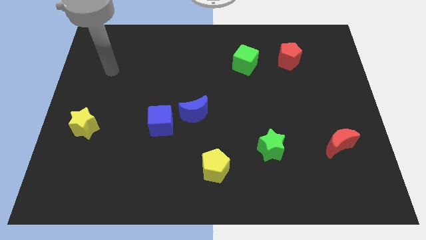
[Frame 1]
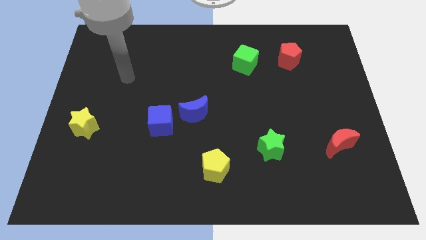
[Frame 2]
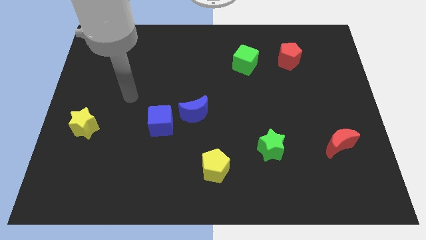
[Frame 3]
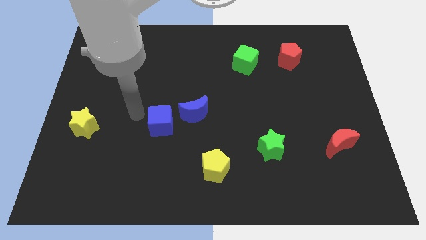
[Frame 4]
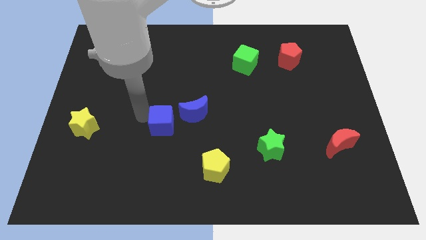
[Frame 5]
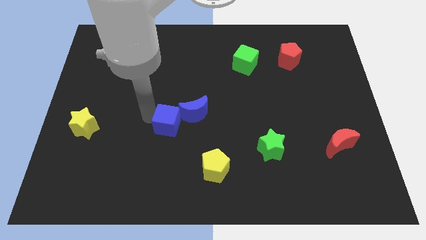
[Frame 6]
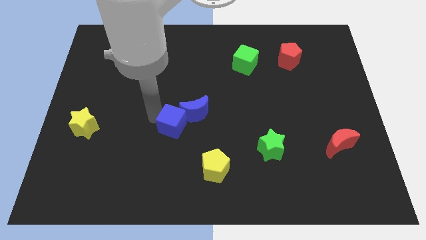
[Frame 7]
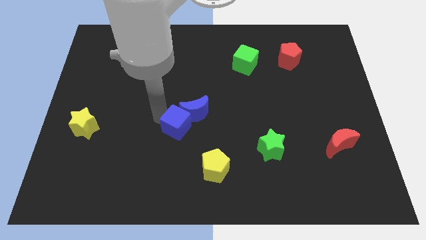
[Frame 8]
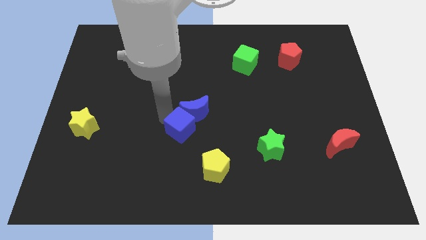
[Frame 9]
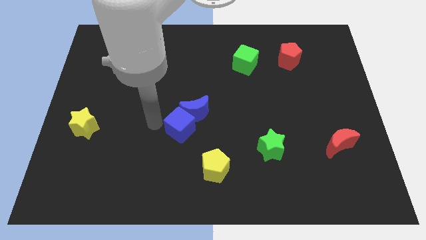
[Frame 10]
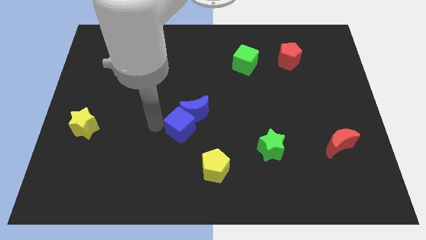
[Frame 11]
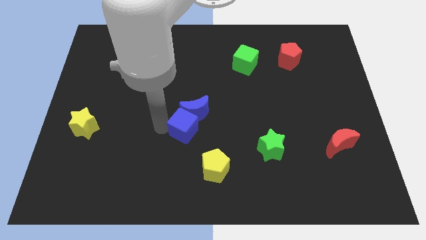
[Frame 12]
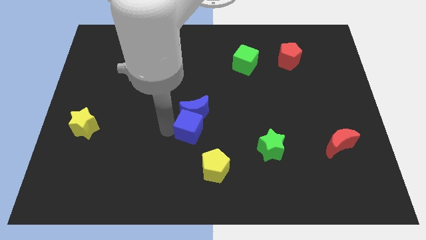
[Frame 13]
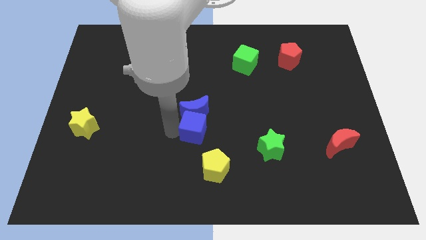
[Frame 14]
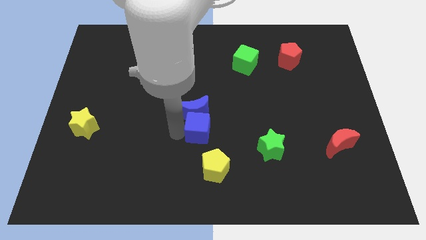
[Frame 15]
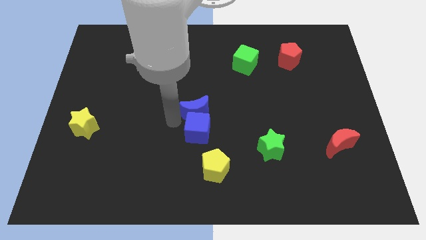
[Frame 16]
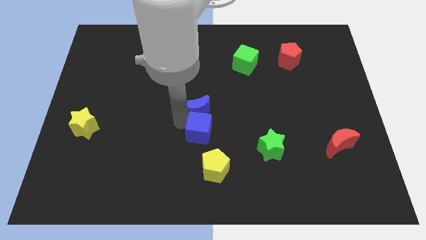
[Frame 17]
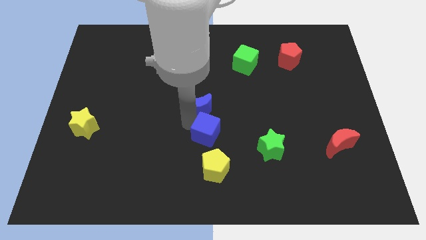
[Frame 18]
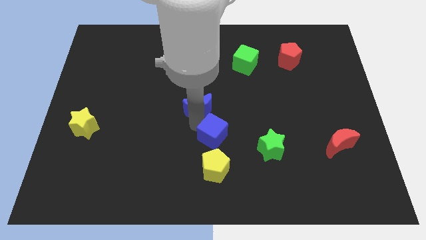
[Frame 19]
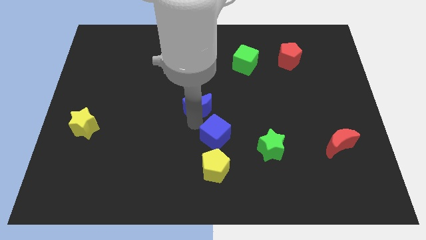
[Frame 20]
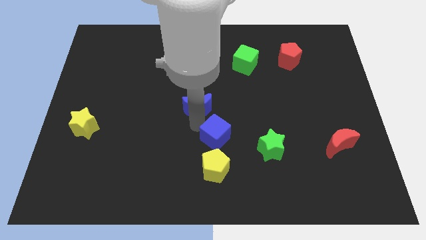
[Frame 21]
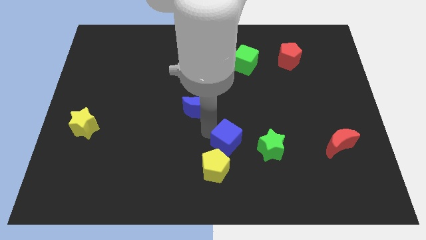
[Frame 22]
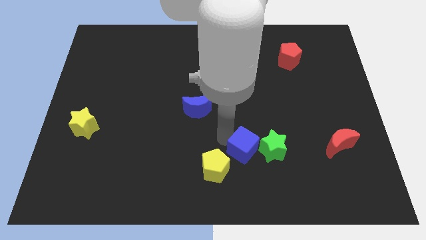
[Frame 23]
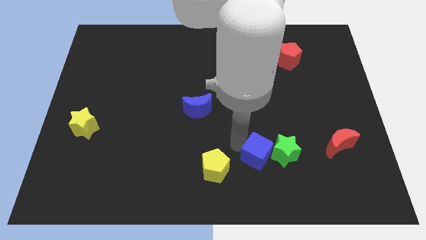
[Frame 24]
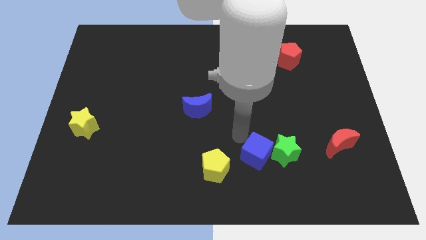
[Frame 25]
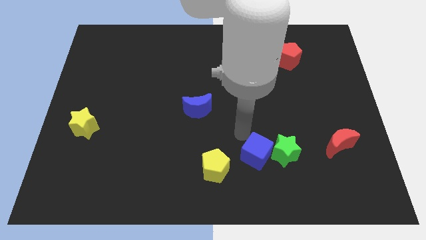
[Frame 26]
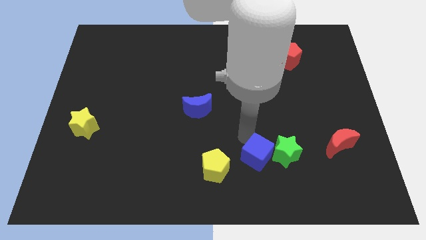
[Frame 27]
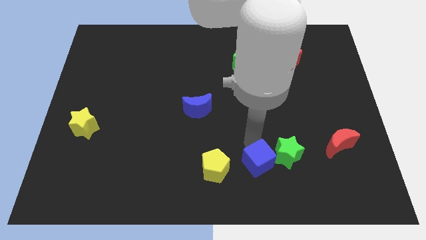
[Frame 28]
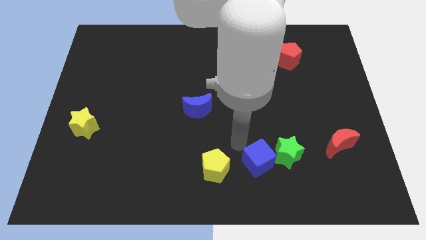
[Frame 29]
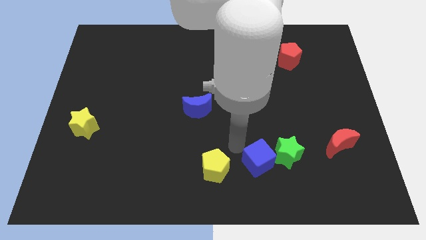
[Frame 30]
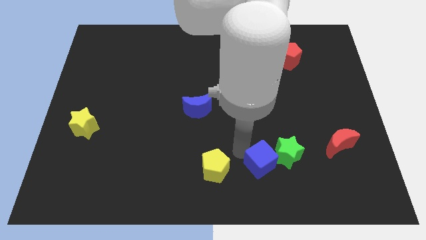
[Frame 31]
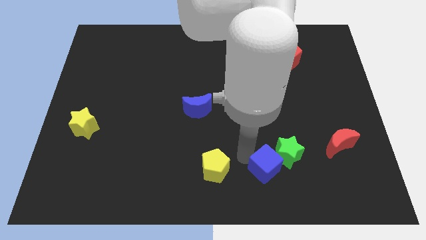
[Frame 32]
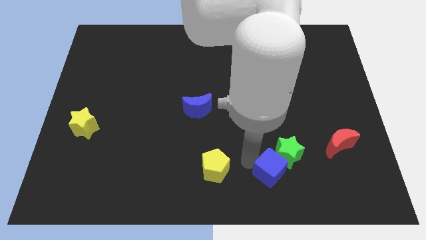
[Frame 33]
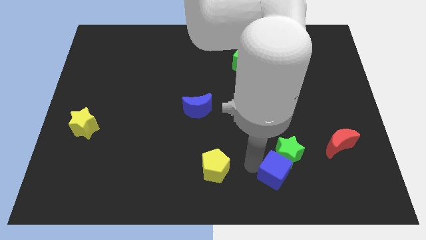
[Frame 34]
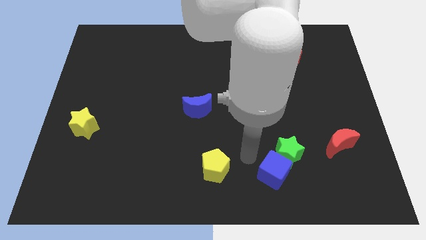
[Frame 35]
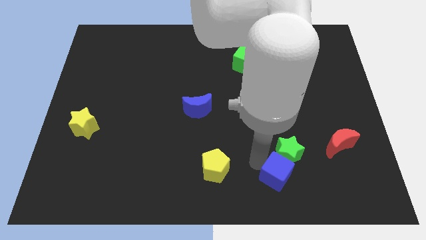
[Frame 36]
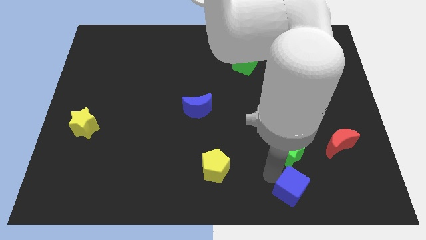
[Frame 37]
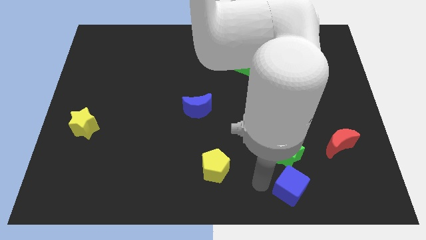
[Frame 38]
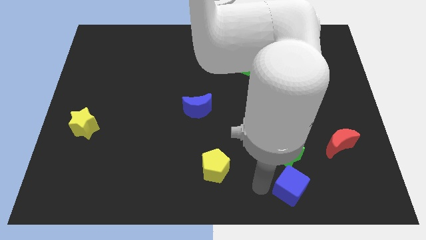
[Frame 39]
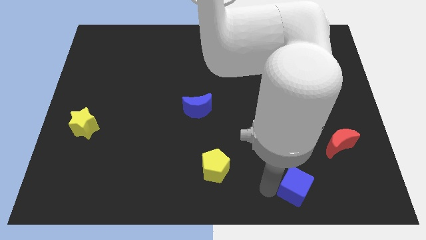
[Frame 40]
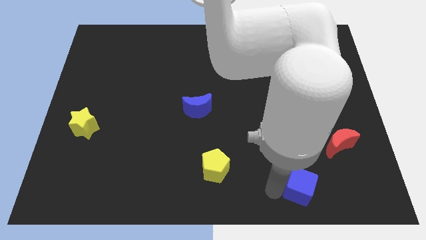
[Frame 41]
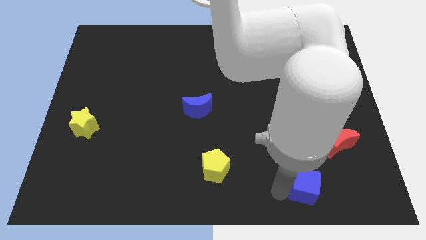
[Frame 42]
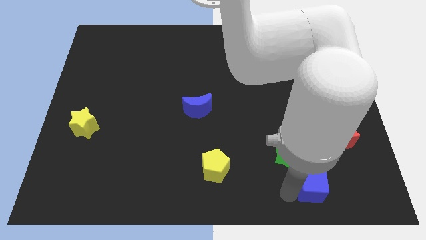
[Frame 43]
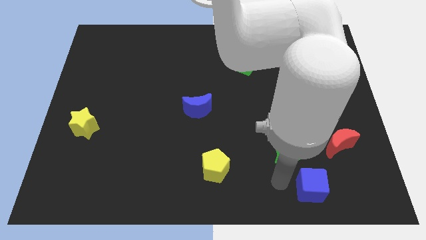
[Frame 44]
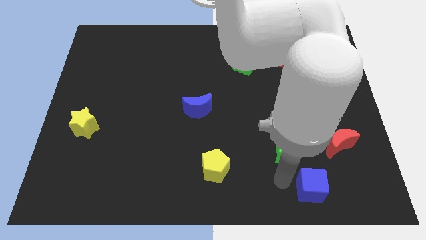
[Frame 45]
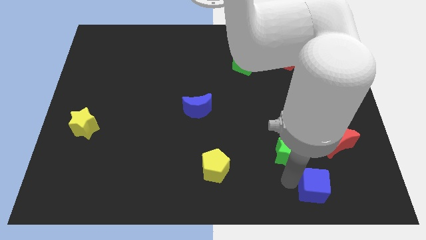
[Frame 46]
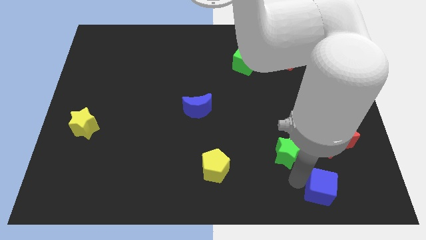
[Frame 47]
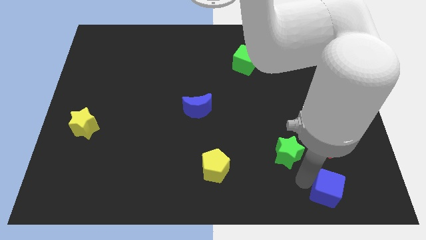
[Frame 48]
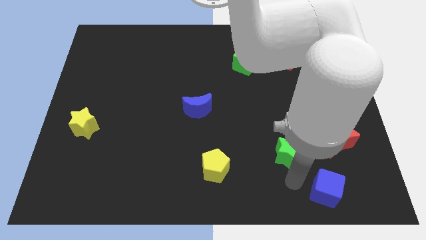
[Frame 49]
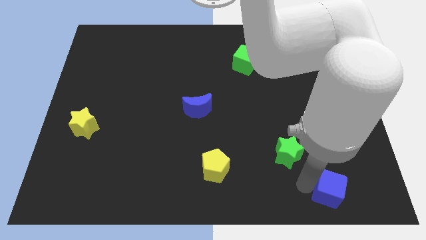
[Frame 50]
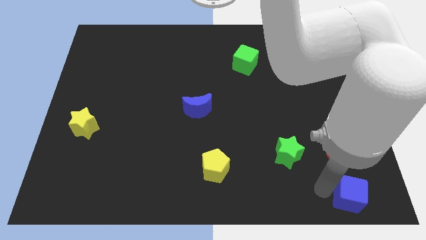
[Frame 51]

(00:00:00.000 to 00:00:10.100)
move the blue cube to the bottom right of the board

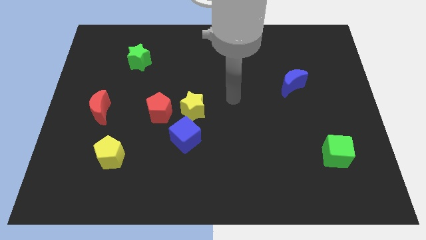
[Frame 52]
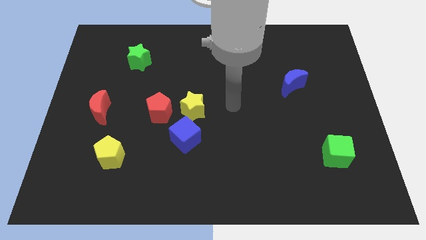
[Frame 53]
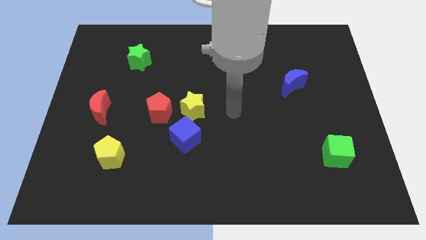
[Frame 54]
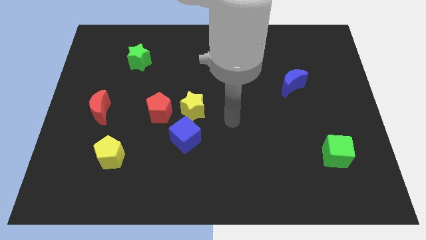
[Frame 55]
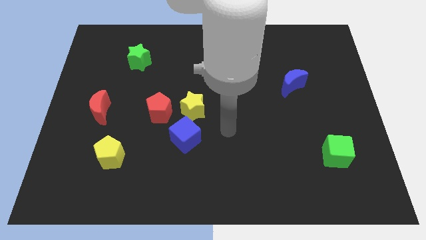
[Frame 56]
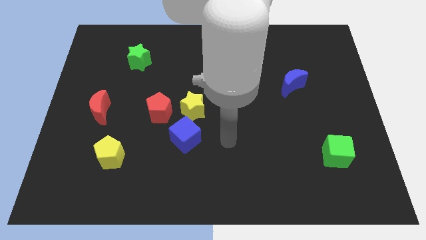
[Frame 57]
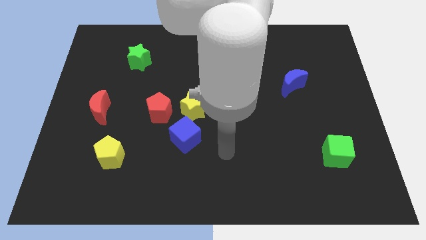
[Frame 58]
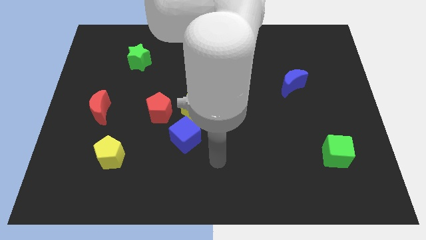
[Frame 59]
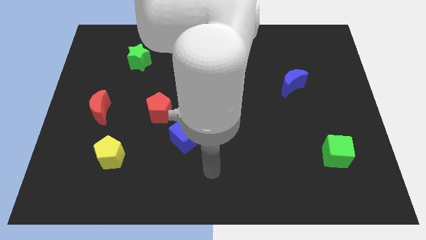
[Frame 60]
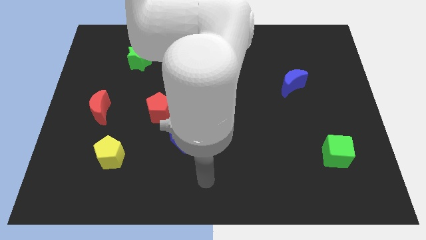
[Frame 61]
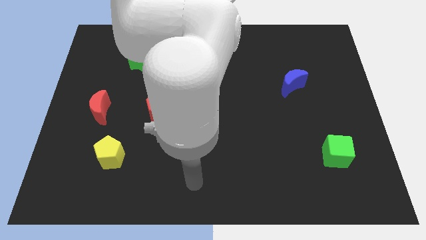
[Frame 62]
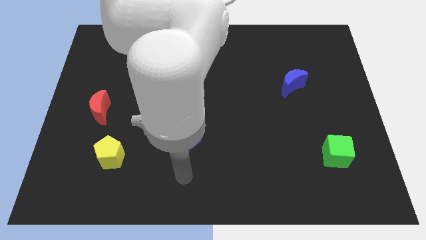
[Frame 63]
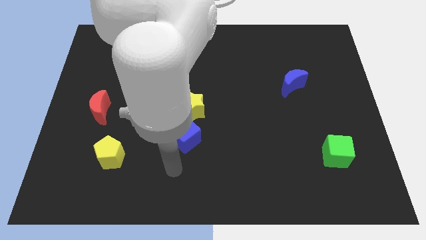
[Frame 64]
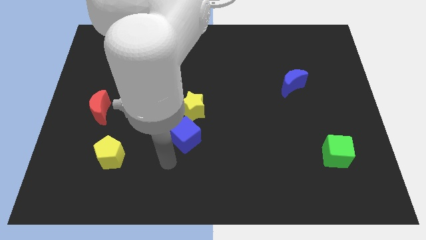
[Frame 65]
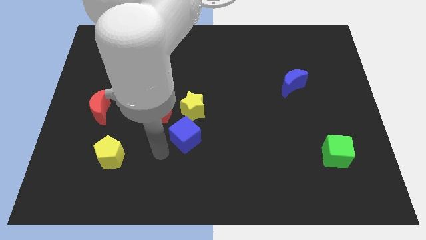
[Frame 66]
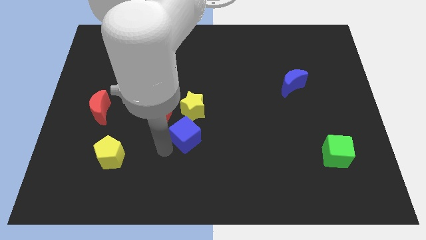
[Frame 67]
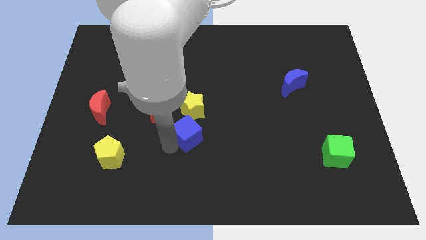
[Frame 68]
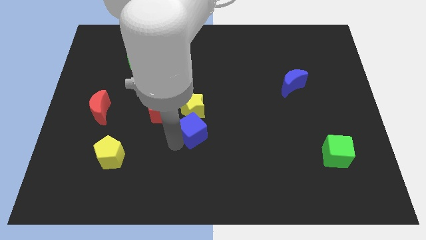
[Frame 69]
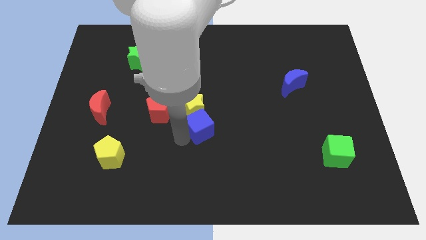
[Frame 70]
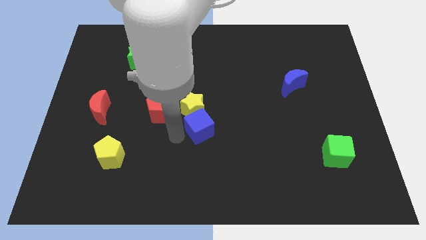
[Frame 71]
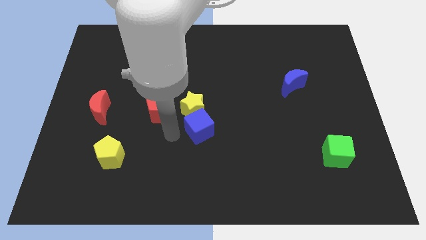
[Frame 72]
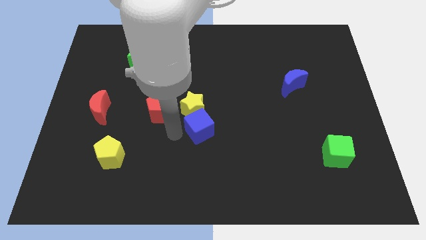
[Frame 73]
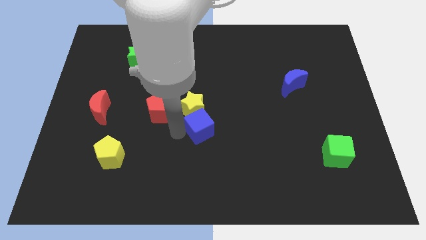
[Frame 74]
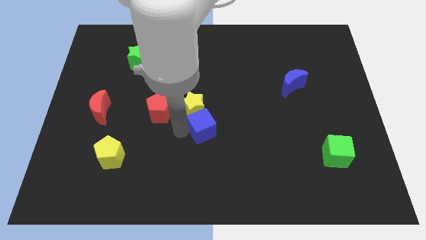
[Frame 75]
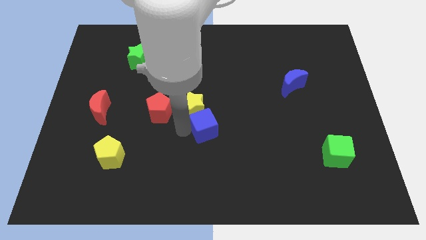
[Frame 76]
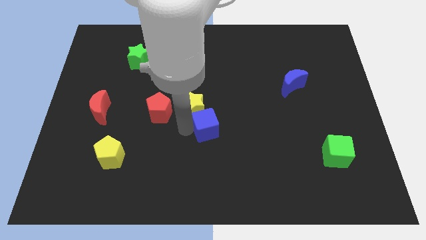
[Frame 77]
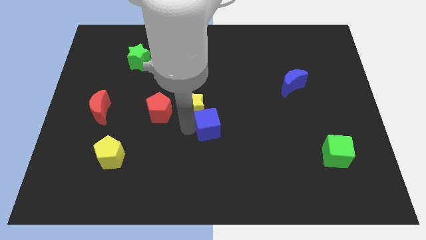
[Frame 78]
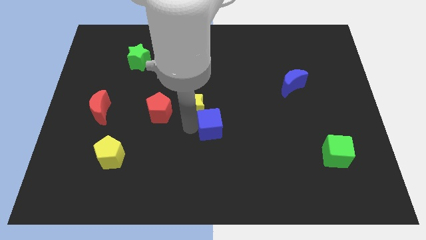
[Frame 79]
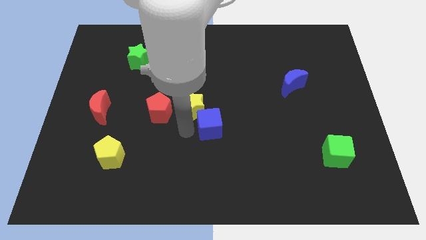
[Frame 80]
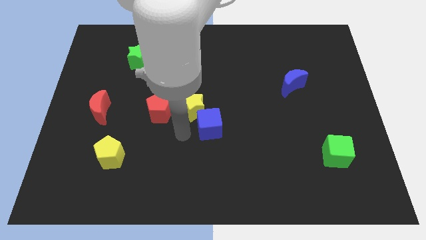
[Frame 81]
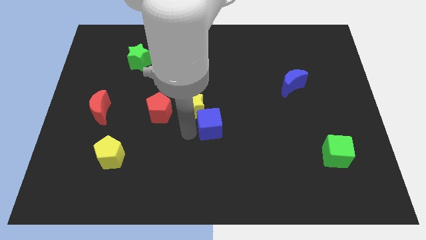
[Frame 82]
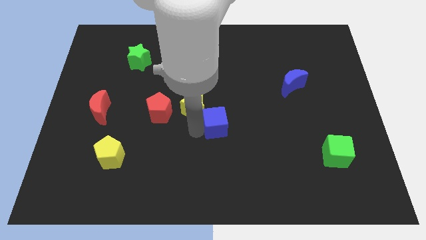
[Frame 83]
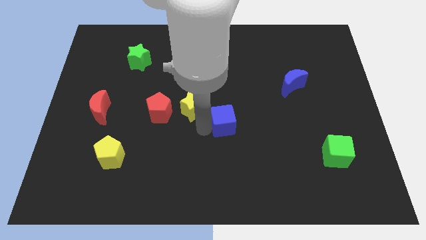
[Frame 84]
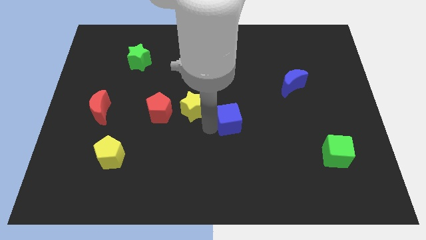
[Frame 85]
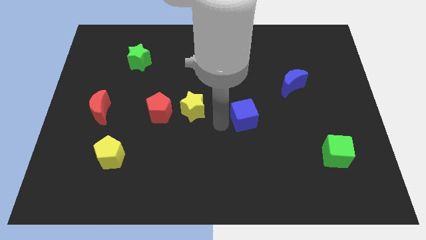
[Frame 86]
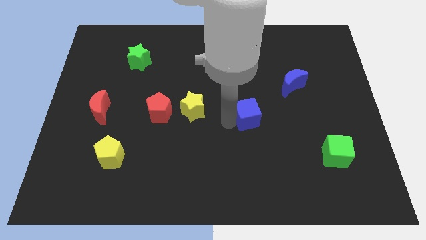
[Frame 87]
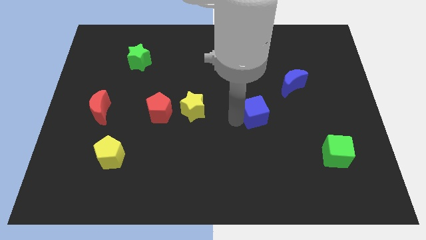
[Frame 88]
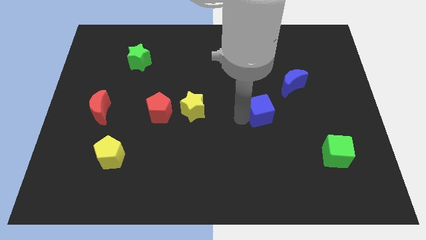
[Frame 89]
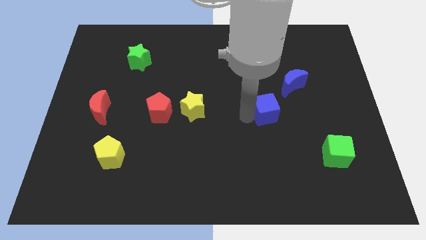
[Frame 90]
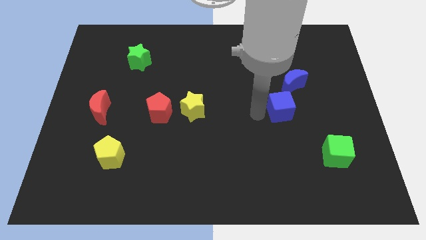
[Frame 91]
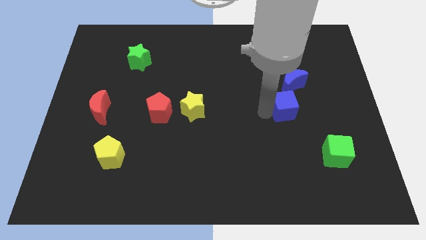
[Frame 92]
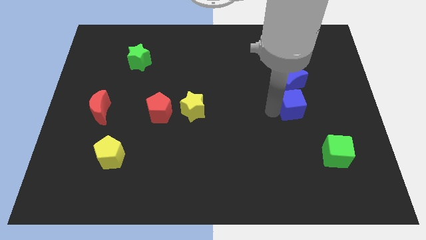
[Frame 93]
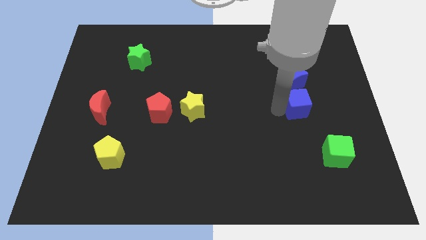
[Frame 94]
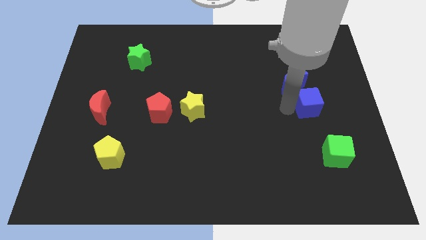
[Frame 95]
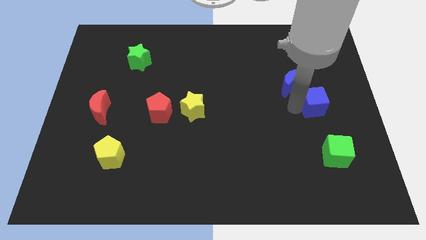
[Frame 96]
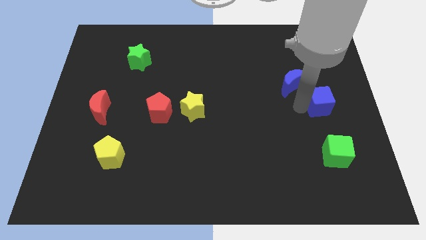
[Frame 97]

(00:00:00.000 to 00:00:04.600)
slide the blue cube to the right side of the board
